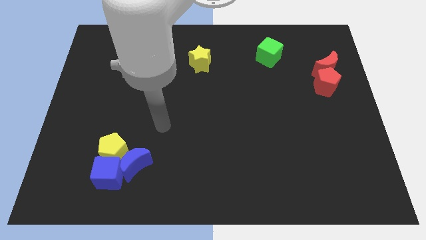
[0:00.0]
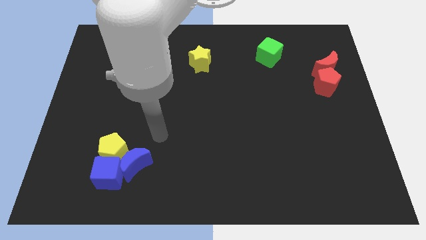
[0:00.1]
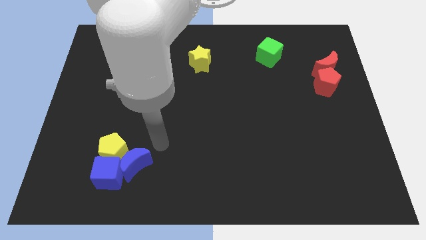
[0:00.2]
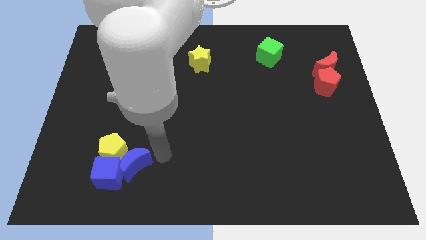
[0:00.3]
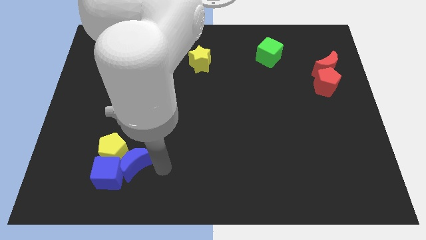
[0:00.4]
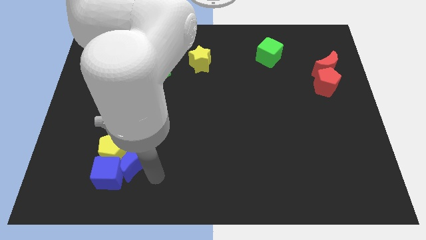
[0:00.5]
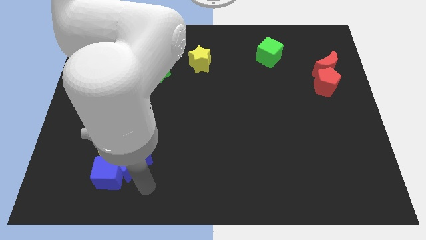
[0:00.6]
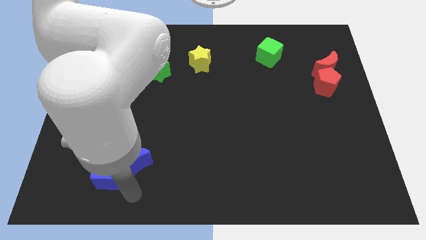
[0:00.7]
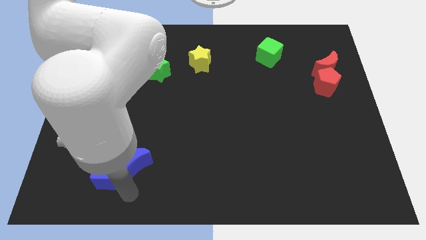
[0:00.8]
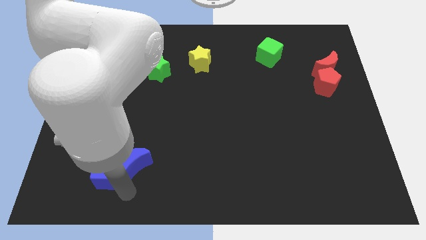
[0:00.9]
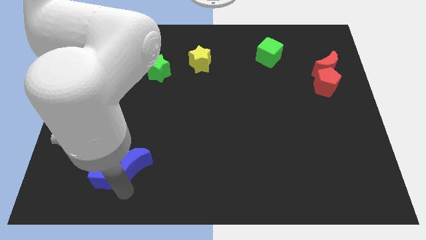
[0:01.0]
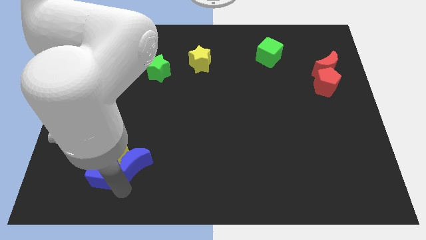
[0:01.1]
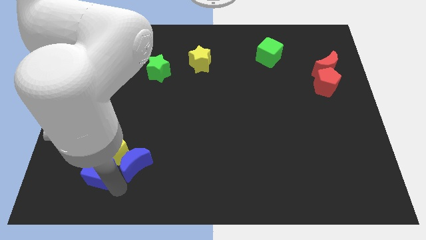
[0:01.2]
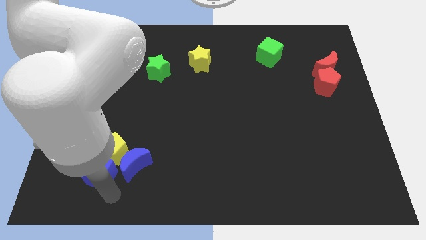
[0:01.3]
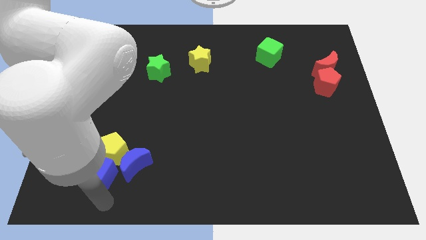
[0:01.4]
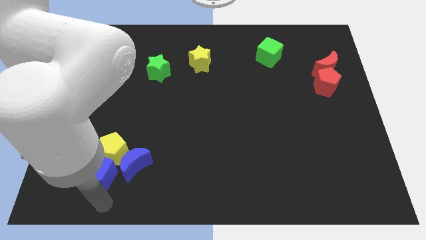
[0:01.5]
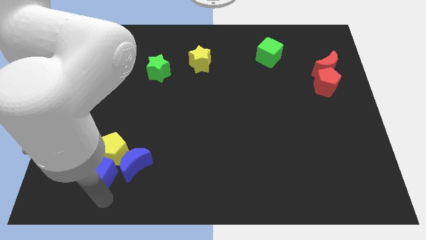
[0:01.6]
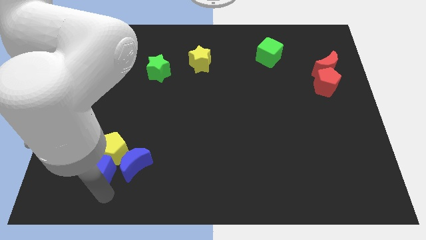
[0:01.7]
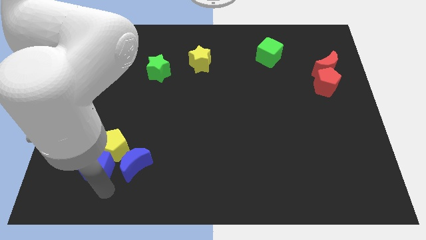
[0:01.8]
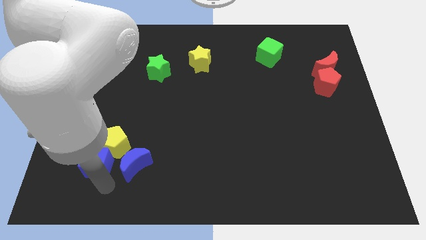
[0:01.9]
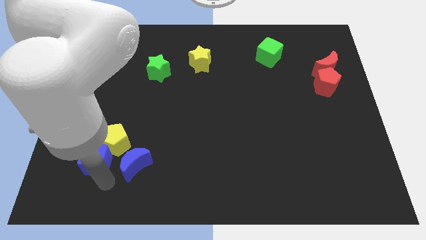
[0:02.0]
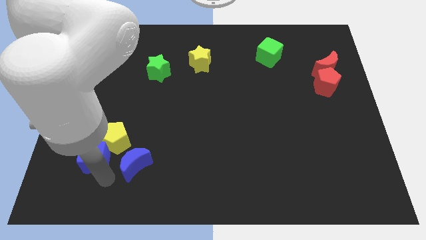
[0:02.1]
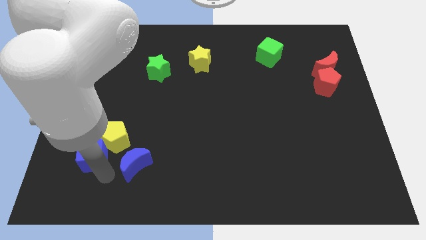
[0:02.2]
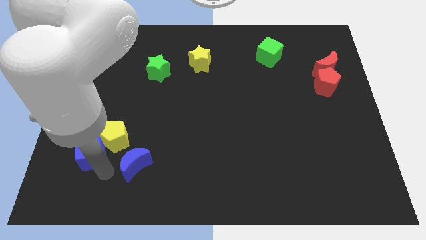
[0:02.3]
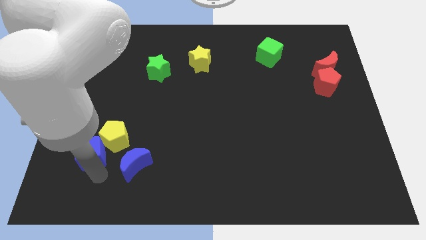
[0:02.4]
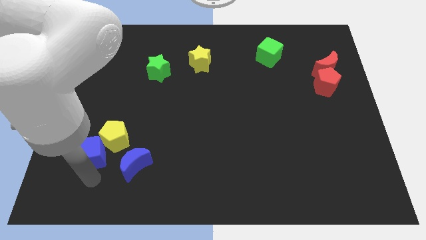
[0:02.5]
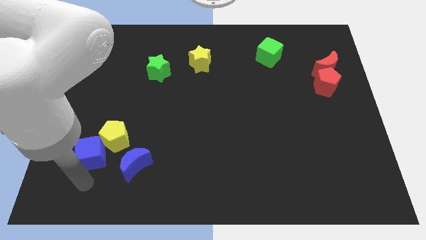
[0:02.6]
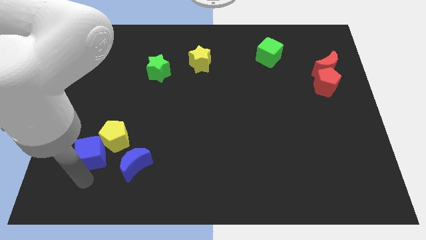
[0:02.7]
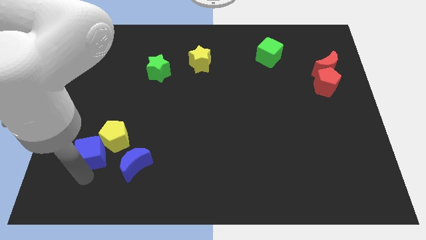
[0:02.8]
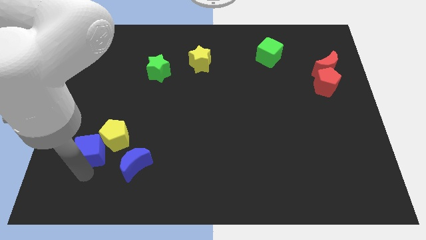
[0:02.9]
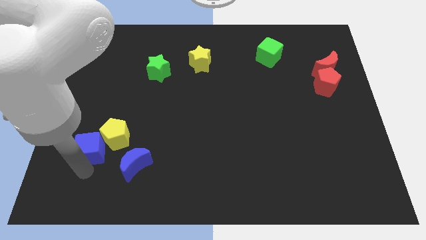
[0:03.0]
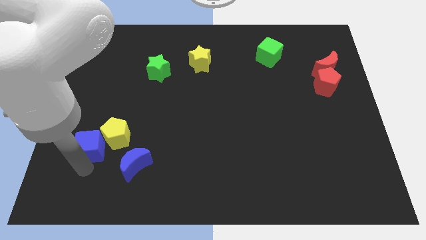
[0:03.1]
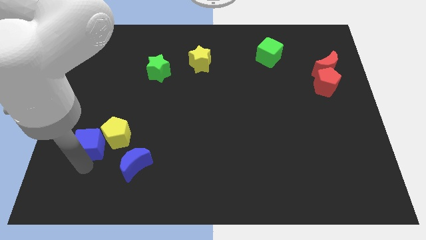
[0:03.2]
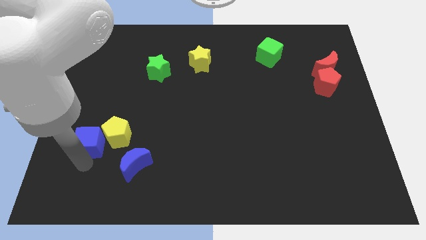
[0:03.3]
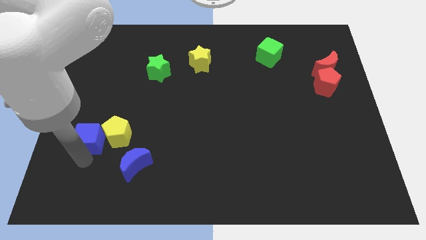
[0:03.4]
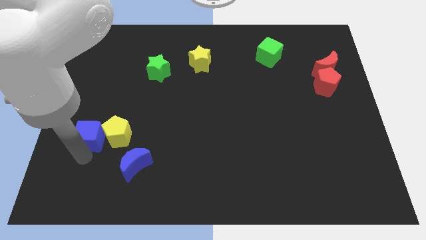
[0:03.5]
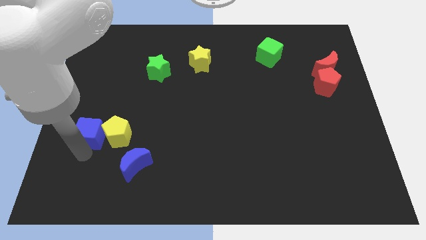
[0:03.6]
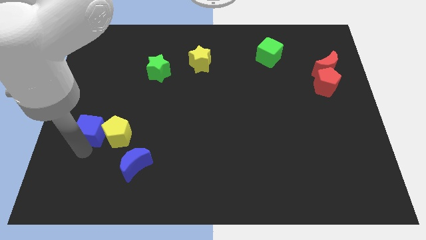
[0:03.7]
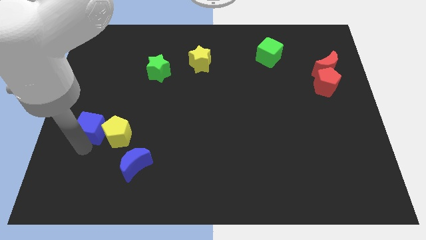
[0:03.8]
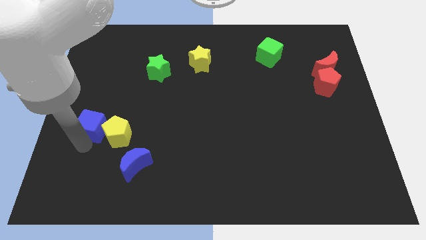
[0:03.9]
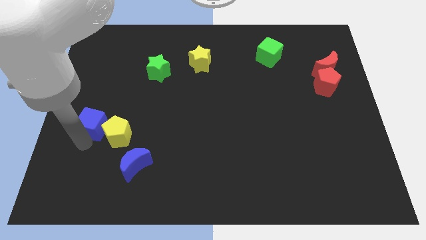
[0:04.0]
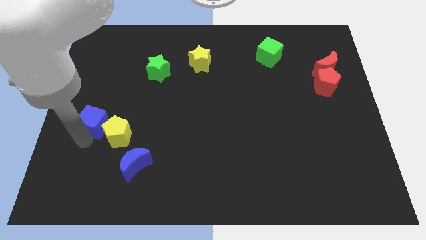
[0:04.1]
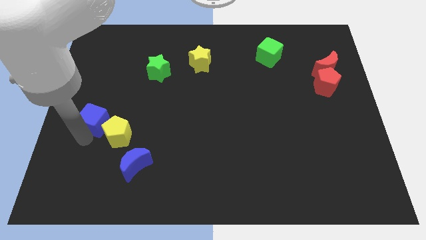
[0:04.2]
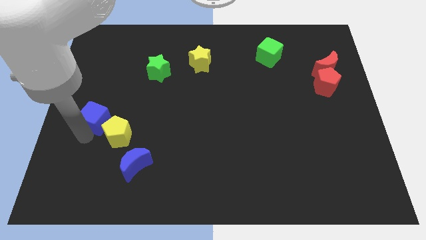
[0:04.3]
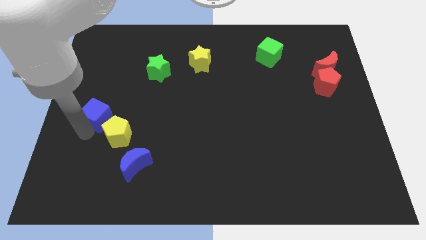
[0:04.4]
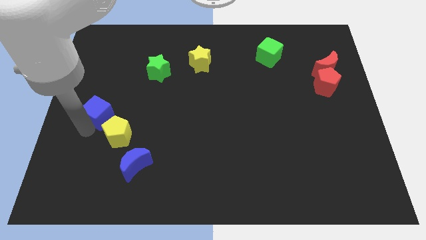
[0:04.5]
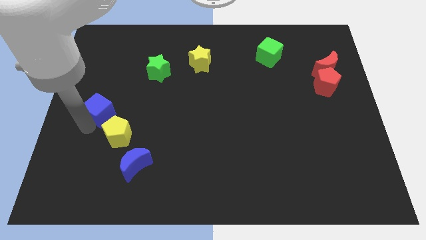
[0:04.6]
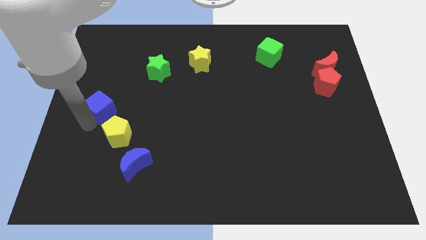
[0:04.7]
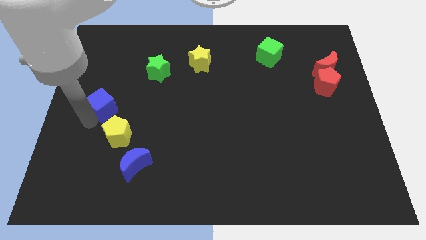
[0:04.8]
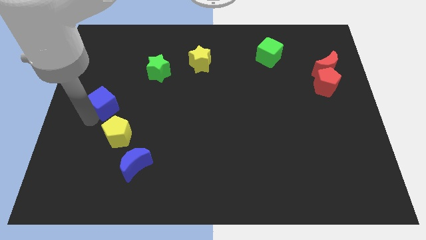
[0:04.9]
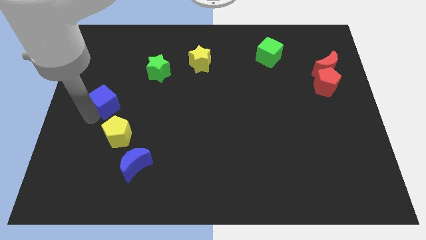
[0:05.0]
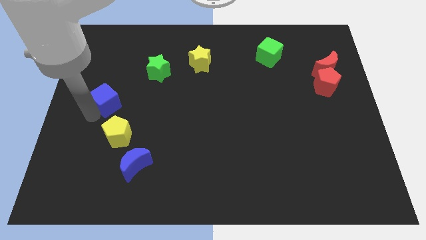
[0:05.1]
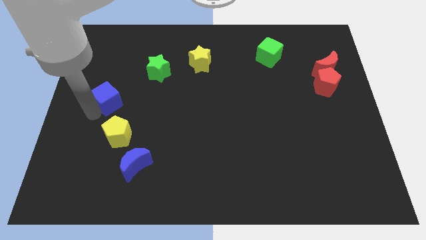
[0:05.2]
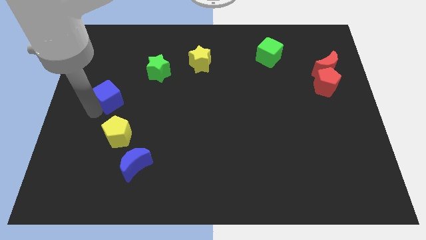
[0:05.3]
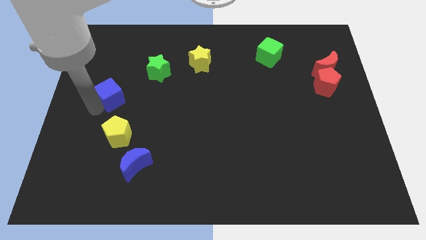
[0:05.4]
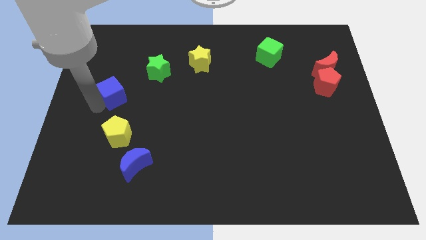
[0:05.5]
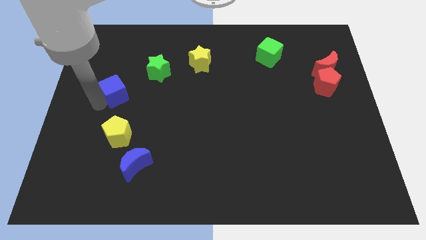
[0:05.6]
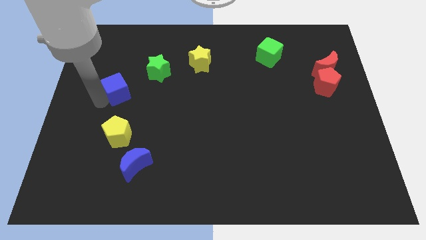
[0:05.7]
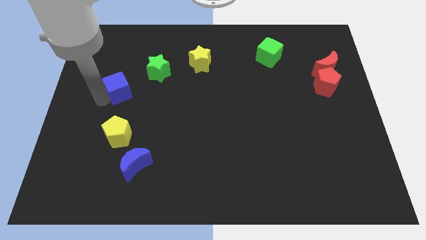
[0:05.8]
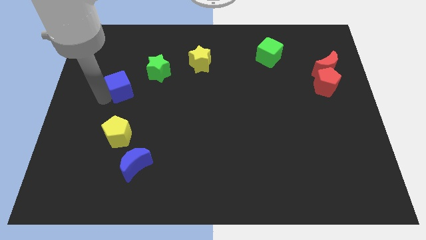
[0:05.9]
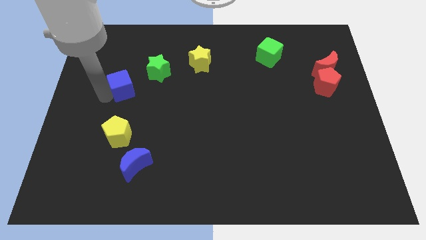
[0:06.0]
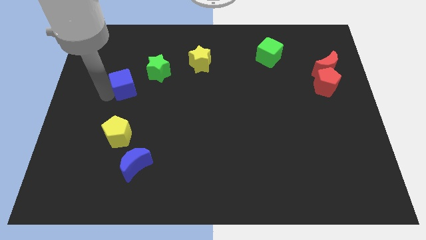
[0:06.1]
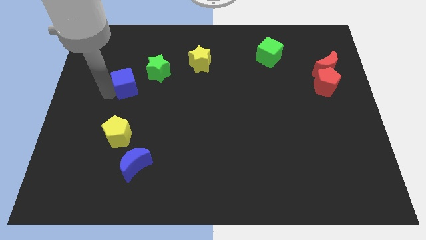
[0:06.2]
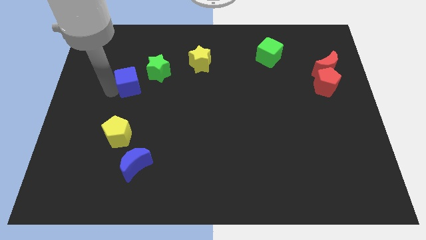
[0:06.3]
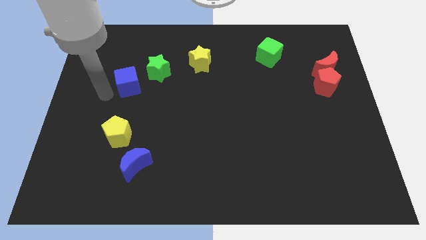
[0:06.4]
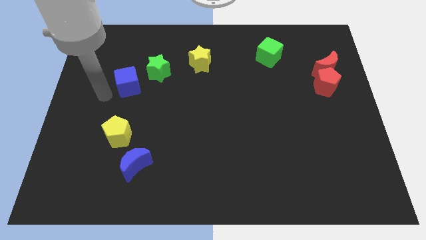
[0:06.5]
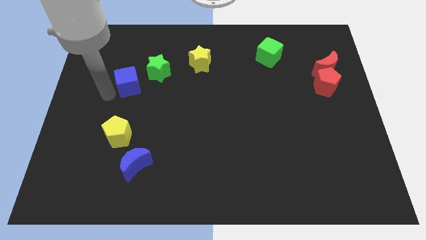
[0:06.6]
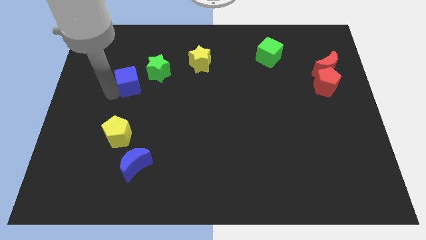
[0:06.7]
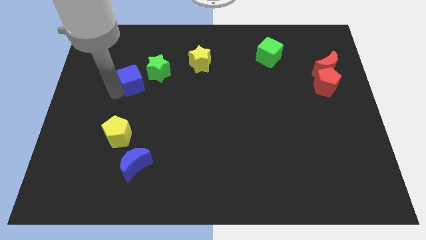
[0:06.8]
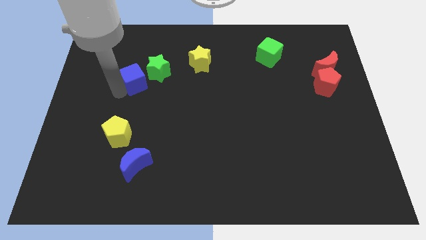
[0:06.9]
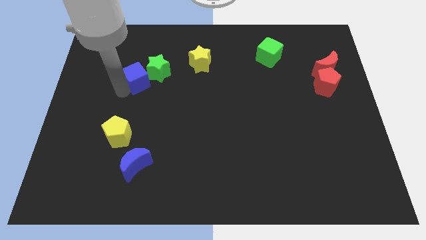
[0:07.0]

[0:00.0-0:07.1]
slide the blue cube next to the green star

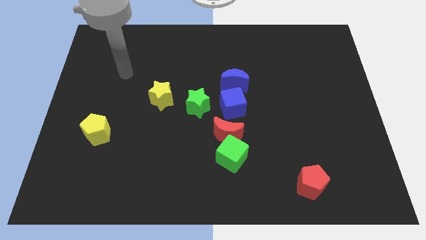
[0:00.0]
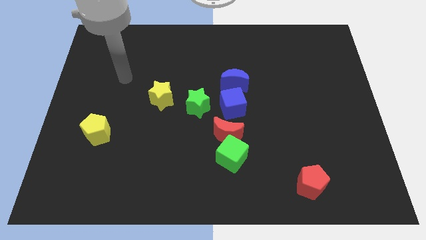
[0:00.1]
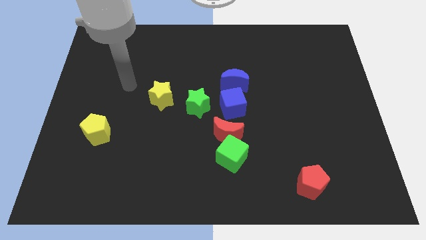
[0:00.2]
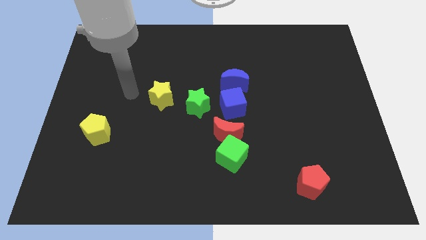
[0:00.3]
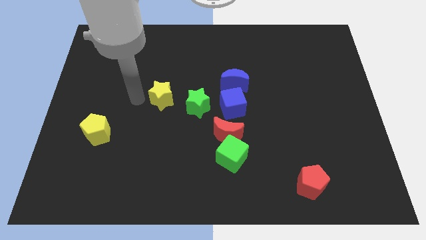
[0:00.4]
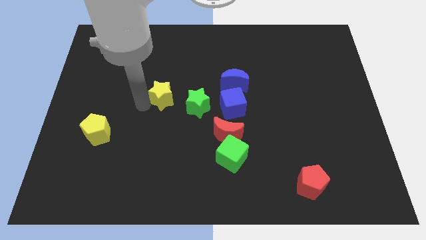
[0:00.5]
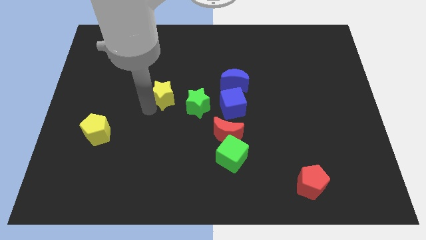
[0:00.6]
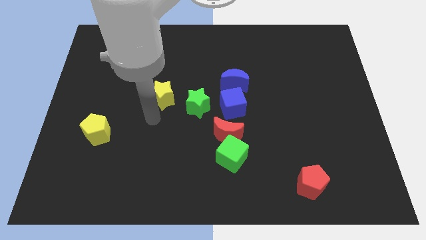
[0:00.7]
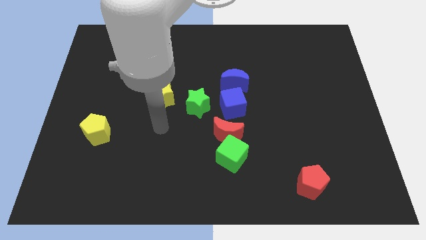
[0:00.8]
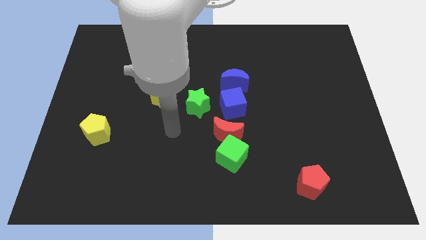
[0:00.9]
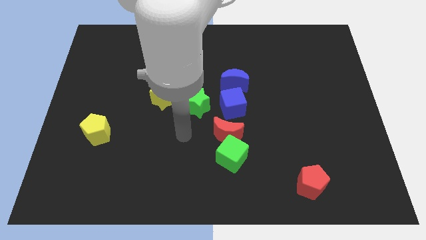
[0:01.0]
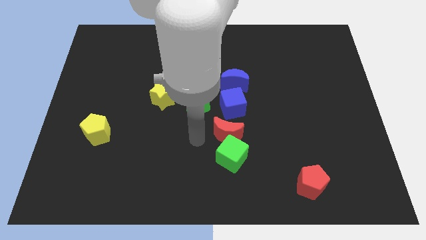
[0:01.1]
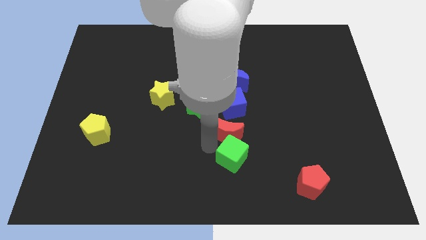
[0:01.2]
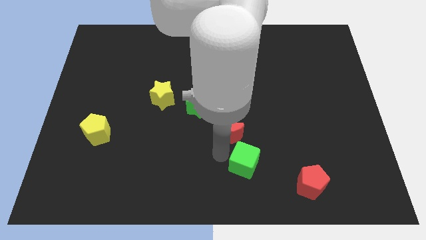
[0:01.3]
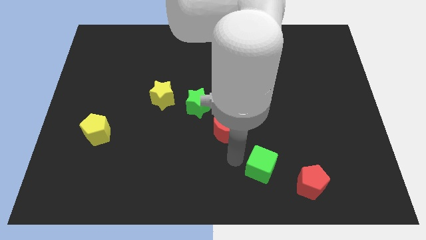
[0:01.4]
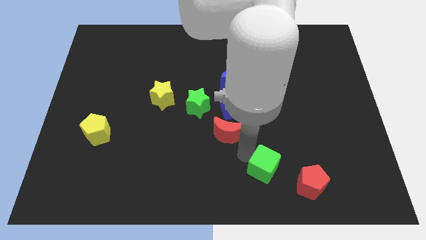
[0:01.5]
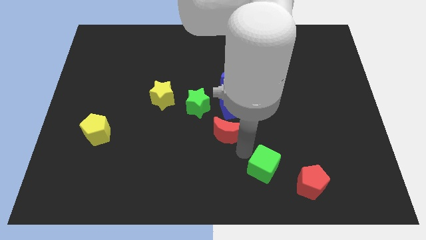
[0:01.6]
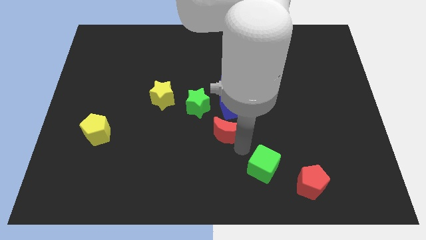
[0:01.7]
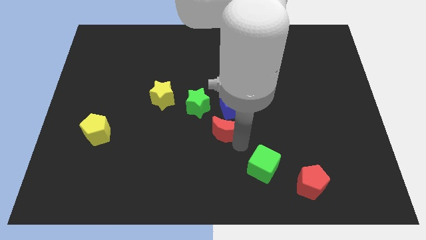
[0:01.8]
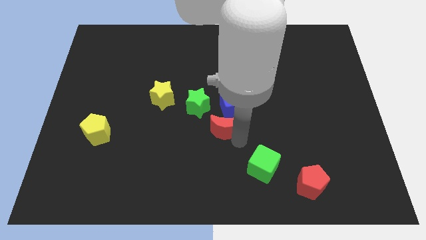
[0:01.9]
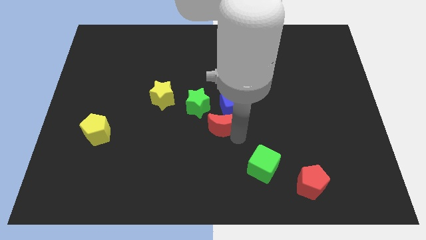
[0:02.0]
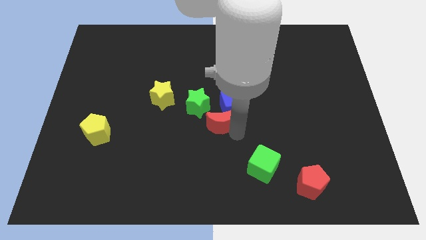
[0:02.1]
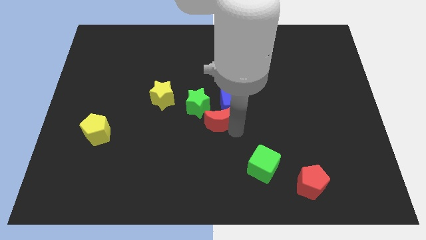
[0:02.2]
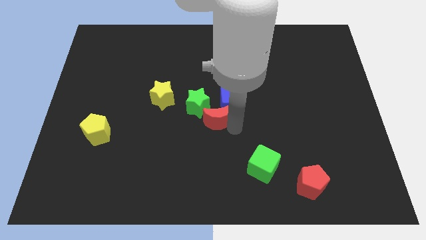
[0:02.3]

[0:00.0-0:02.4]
push the red moon next to the green star
